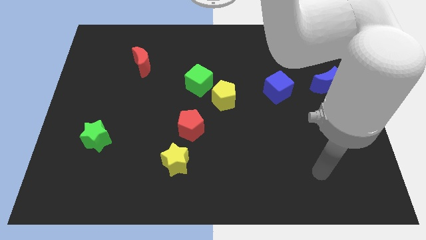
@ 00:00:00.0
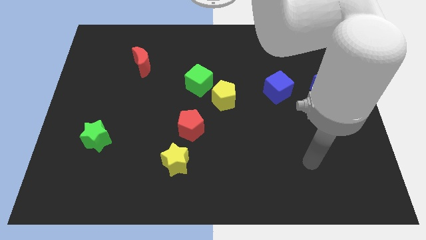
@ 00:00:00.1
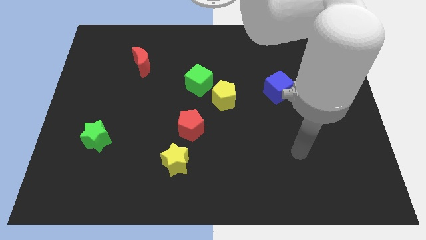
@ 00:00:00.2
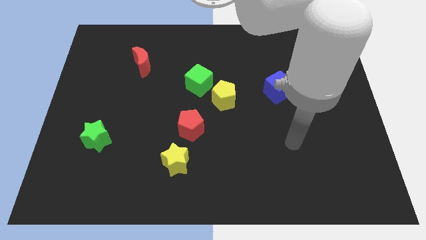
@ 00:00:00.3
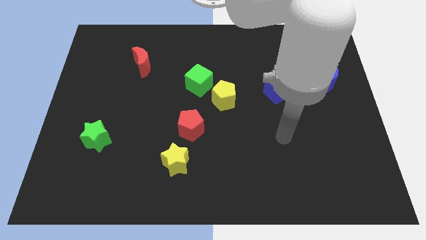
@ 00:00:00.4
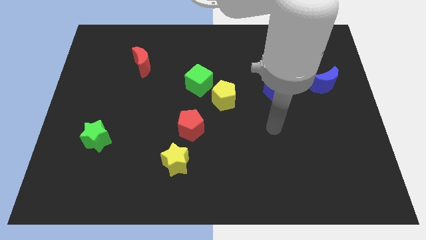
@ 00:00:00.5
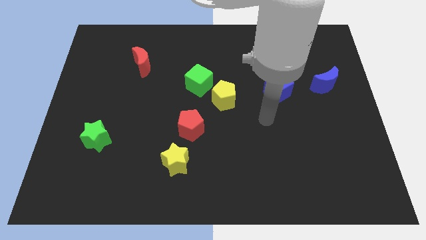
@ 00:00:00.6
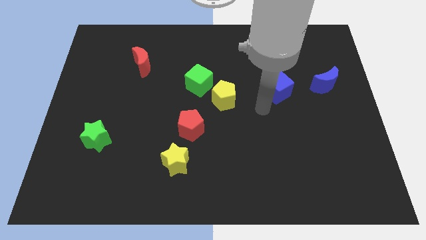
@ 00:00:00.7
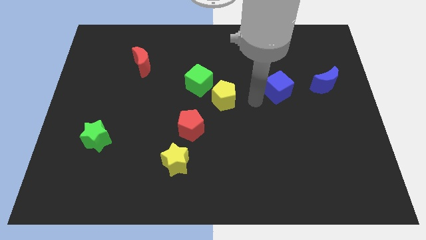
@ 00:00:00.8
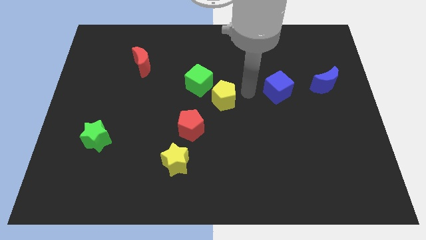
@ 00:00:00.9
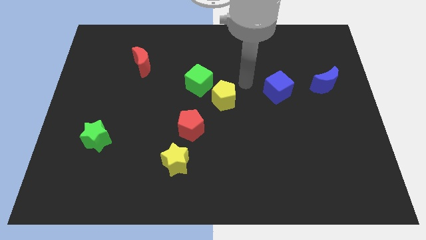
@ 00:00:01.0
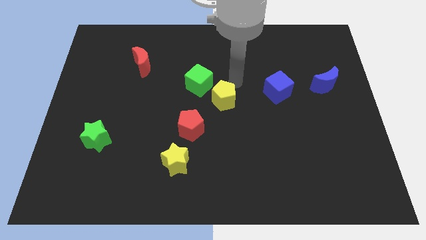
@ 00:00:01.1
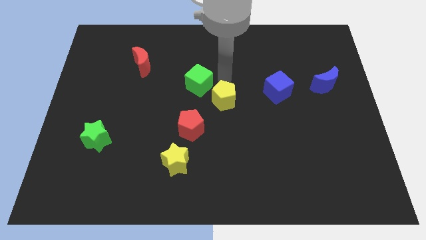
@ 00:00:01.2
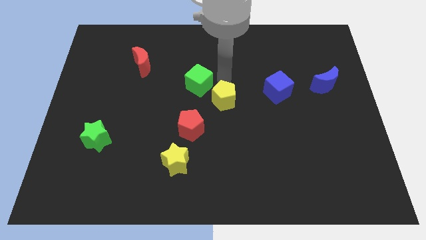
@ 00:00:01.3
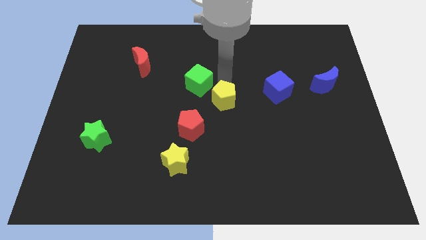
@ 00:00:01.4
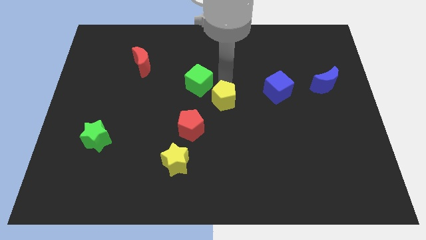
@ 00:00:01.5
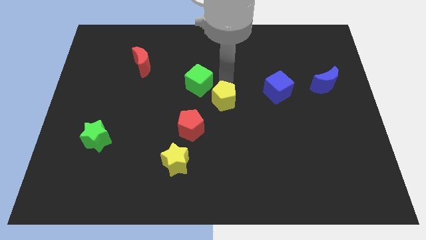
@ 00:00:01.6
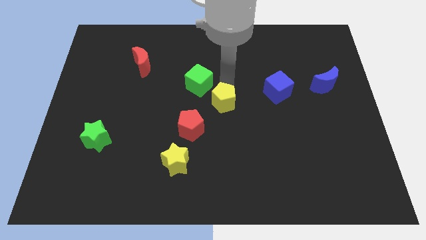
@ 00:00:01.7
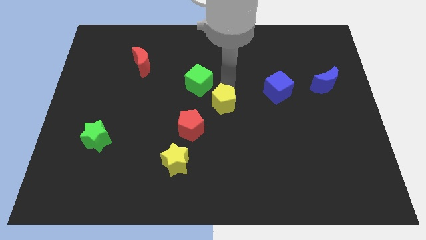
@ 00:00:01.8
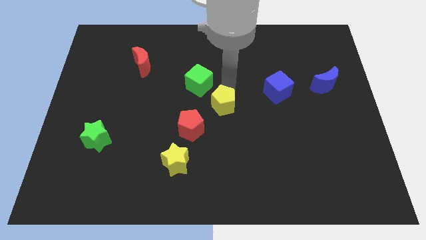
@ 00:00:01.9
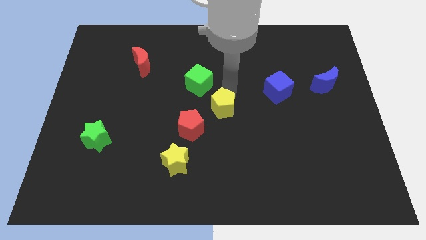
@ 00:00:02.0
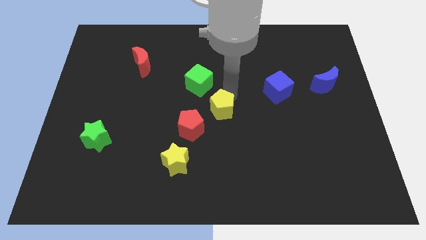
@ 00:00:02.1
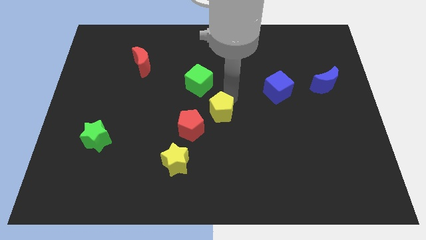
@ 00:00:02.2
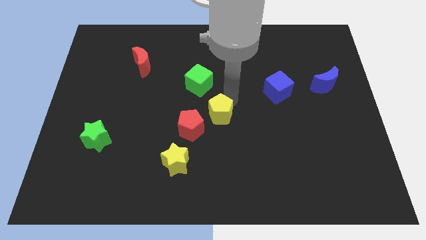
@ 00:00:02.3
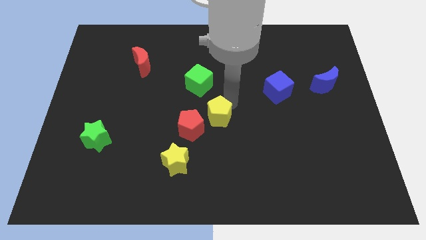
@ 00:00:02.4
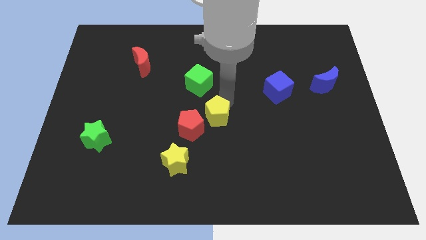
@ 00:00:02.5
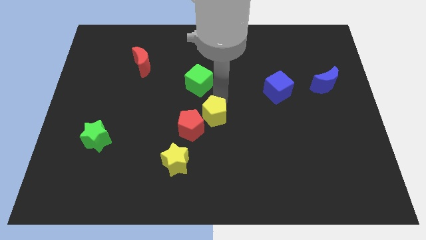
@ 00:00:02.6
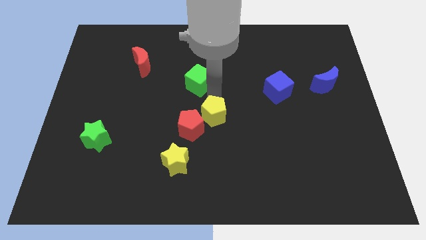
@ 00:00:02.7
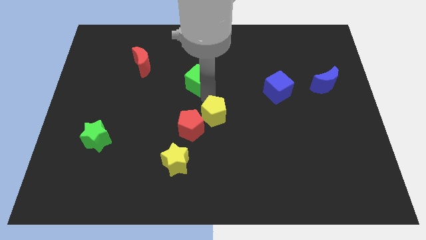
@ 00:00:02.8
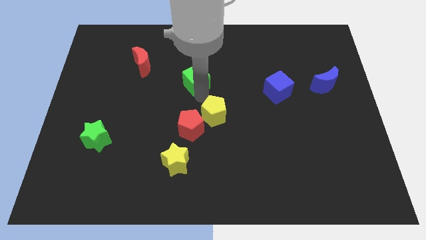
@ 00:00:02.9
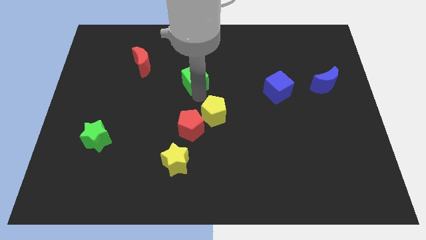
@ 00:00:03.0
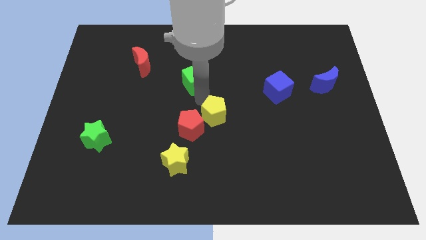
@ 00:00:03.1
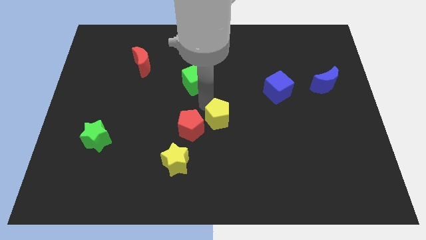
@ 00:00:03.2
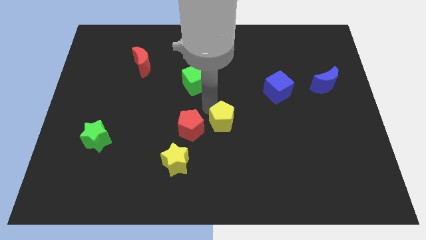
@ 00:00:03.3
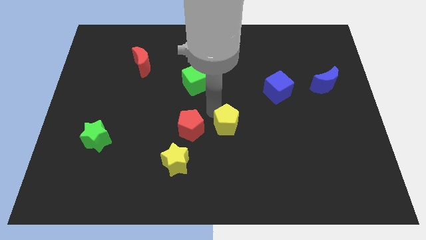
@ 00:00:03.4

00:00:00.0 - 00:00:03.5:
push the yellow pentagon a little down

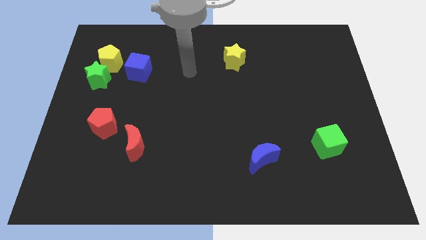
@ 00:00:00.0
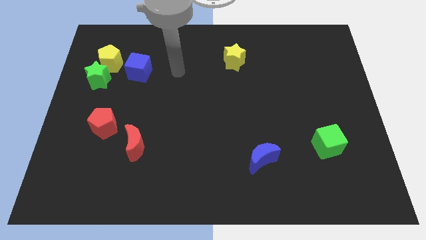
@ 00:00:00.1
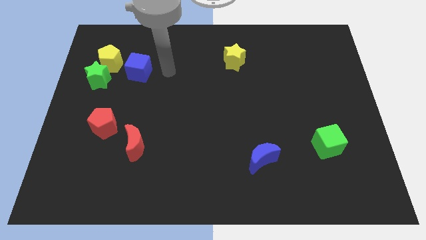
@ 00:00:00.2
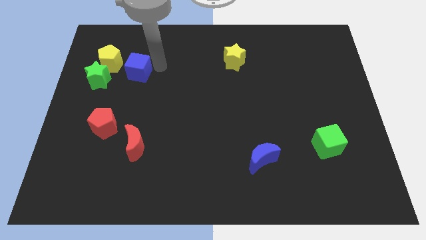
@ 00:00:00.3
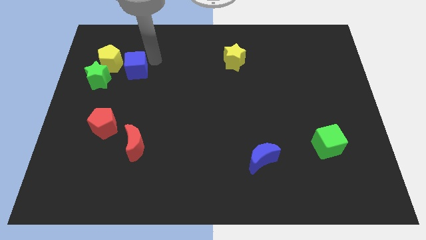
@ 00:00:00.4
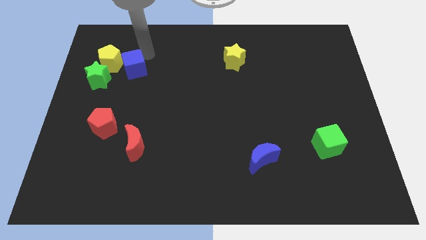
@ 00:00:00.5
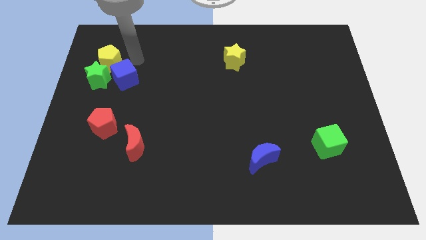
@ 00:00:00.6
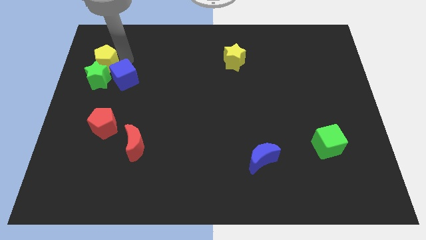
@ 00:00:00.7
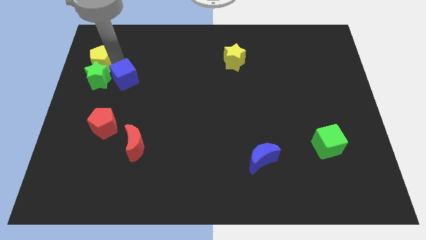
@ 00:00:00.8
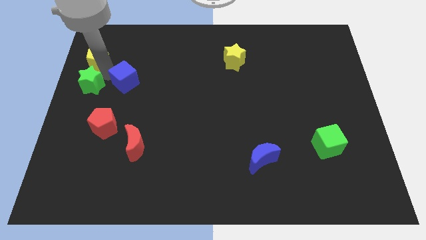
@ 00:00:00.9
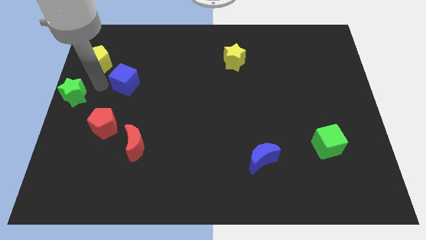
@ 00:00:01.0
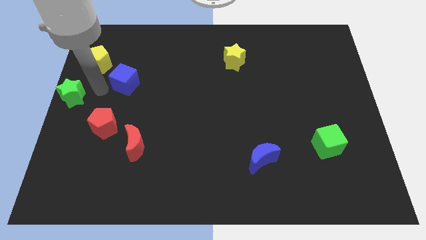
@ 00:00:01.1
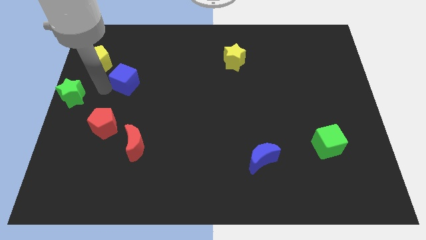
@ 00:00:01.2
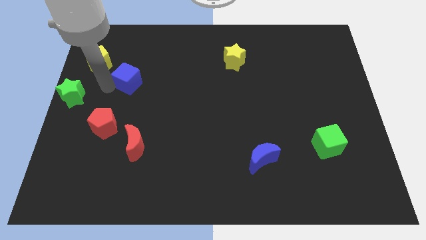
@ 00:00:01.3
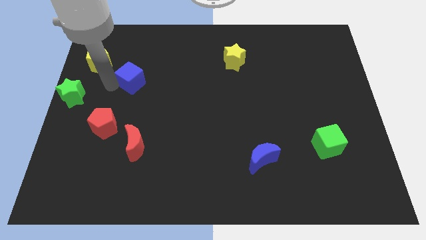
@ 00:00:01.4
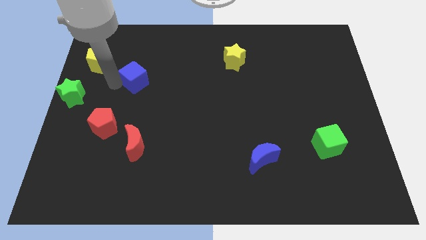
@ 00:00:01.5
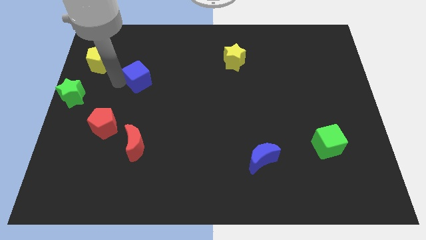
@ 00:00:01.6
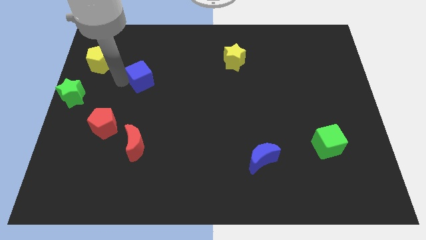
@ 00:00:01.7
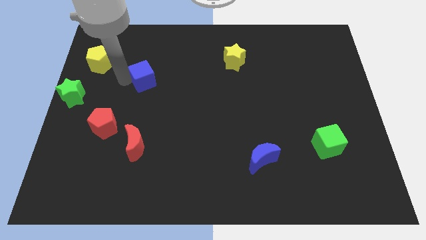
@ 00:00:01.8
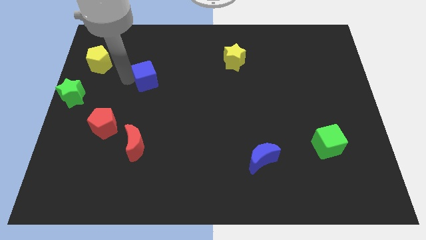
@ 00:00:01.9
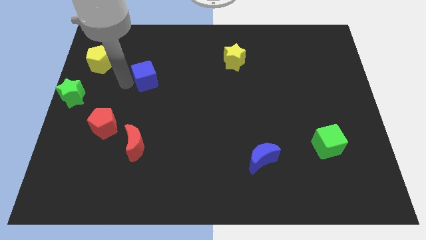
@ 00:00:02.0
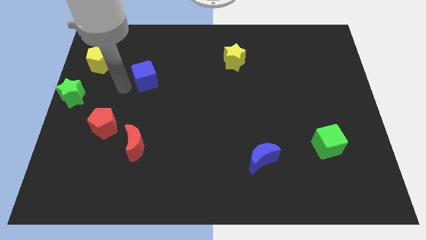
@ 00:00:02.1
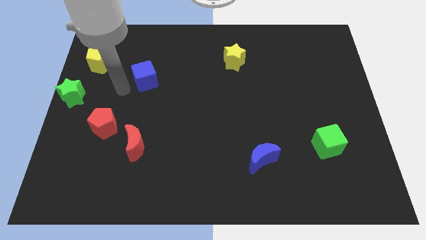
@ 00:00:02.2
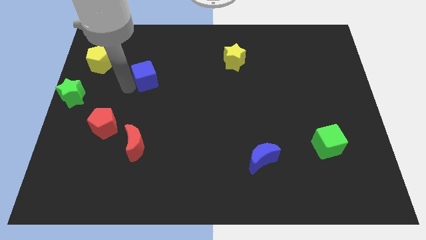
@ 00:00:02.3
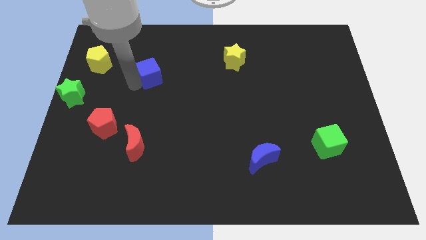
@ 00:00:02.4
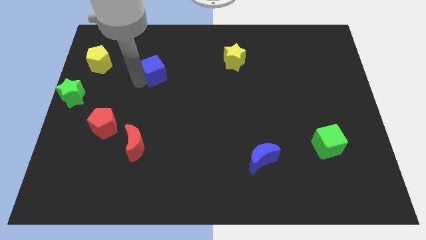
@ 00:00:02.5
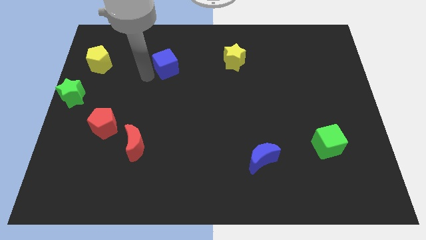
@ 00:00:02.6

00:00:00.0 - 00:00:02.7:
push the blue cube a bit to the right

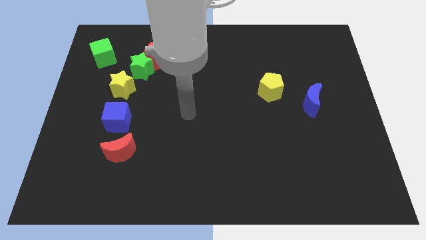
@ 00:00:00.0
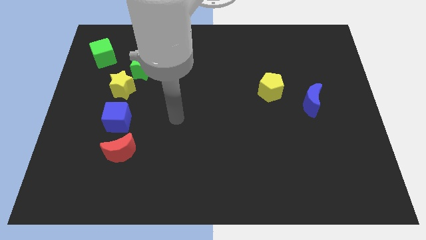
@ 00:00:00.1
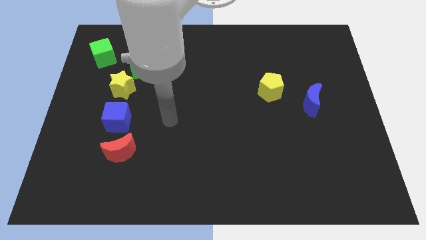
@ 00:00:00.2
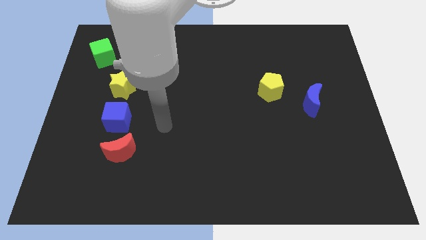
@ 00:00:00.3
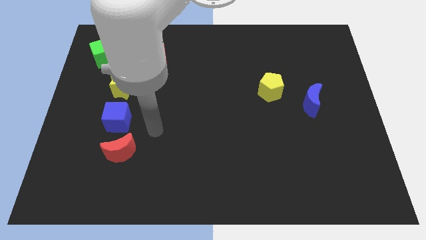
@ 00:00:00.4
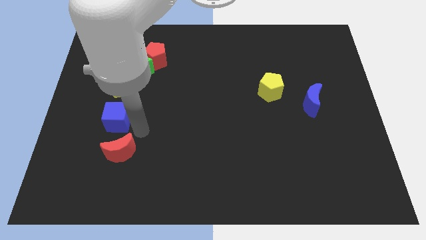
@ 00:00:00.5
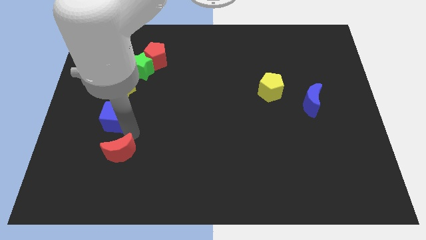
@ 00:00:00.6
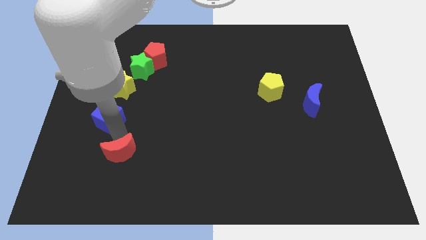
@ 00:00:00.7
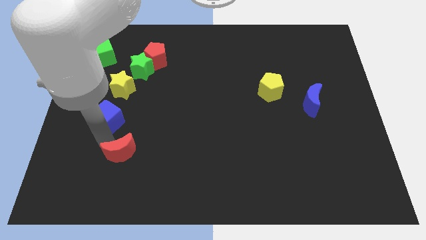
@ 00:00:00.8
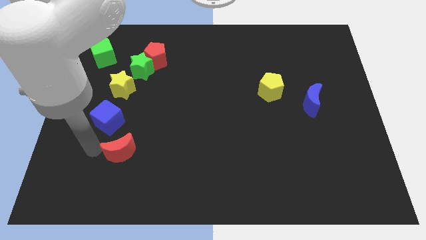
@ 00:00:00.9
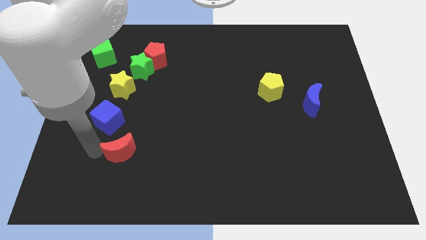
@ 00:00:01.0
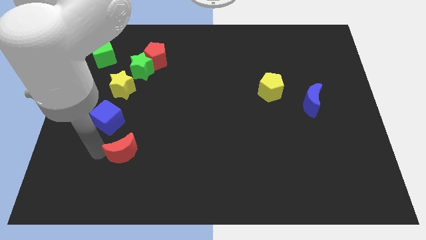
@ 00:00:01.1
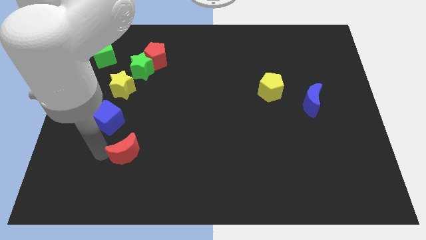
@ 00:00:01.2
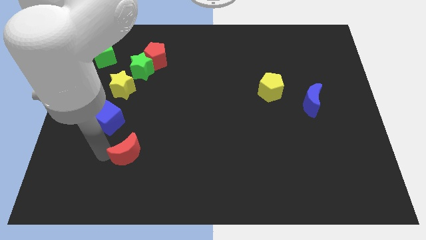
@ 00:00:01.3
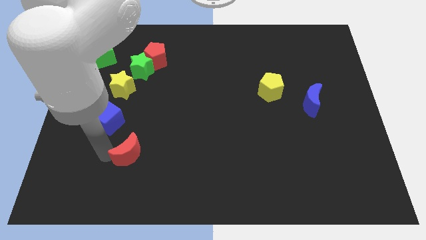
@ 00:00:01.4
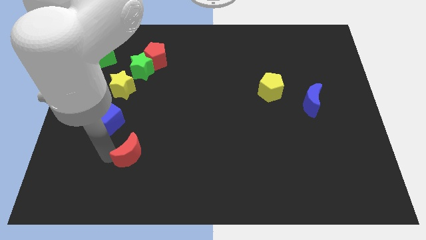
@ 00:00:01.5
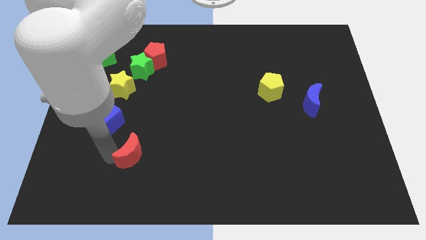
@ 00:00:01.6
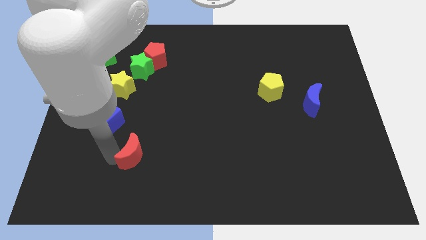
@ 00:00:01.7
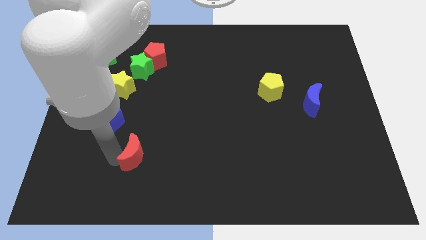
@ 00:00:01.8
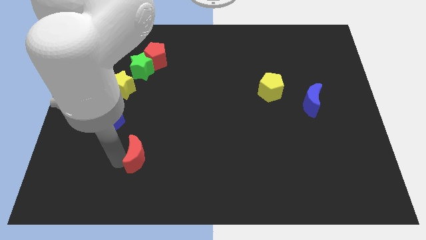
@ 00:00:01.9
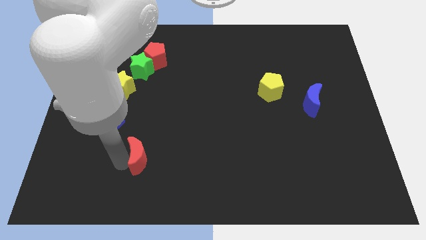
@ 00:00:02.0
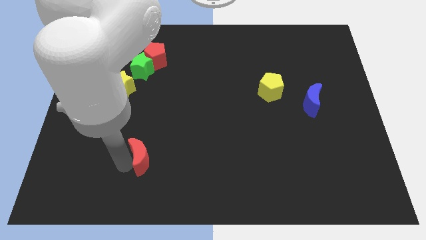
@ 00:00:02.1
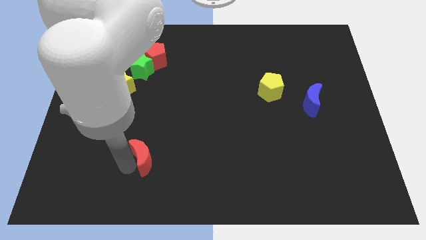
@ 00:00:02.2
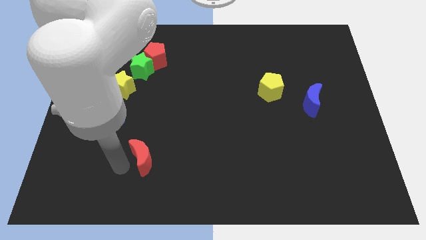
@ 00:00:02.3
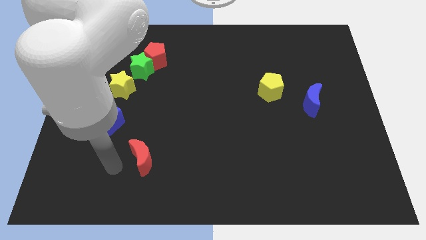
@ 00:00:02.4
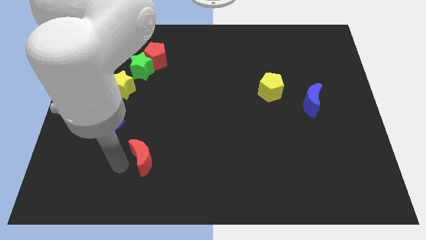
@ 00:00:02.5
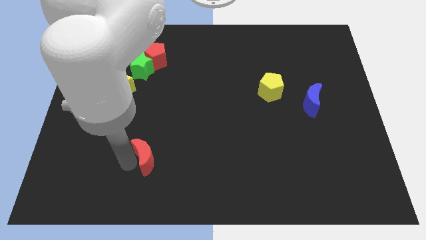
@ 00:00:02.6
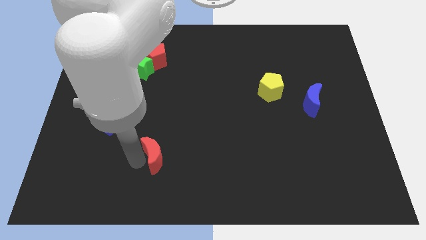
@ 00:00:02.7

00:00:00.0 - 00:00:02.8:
slightly move the red moon to the right
